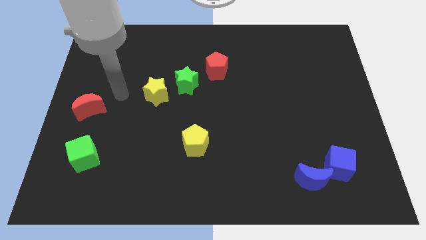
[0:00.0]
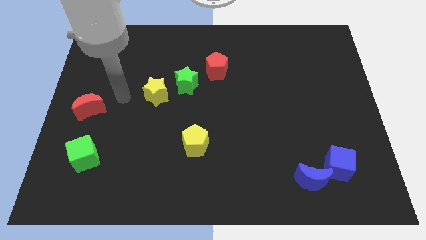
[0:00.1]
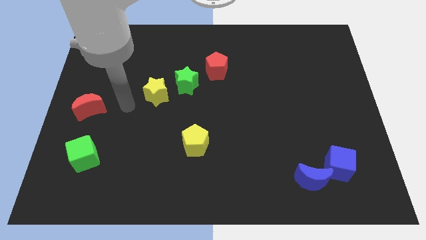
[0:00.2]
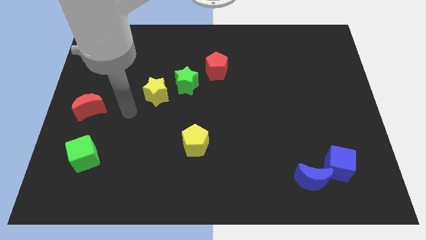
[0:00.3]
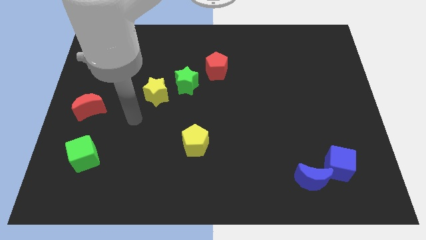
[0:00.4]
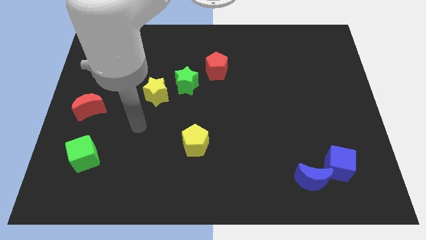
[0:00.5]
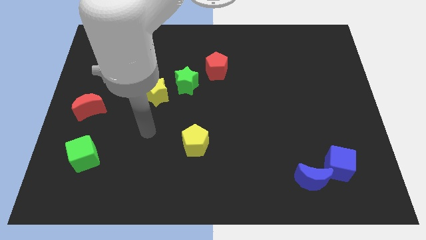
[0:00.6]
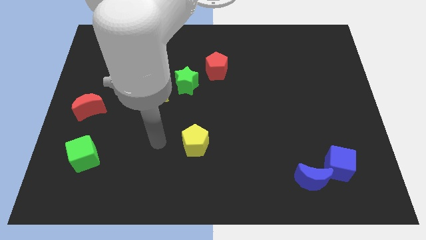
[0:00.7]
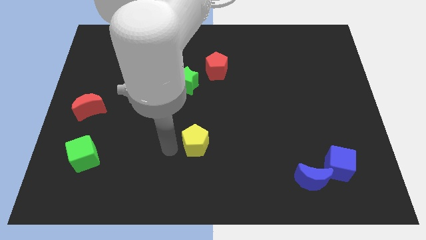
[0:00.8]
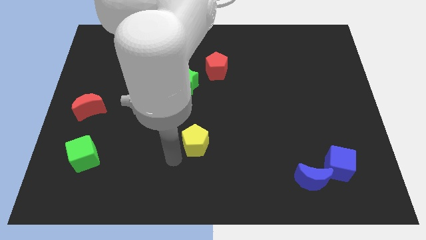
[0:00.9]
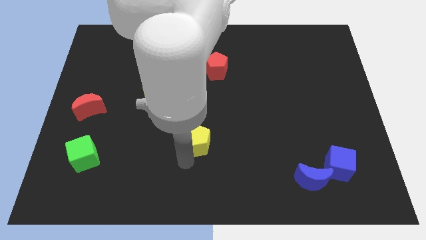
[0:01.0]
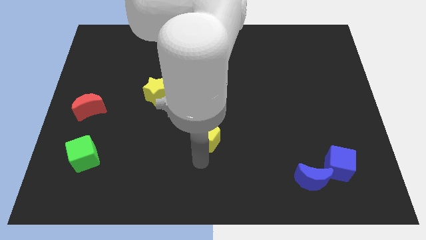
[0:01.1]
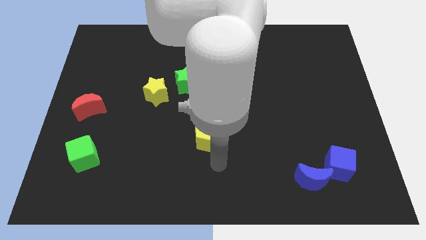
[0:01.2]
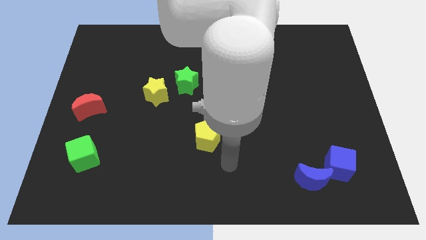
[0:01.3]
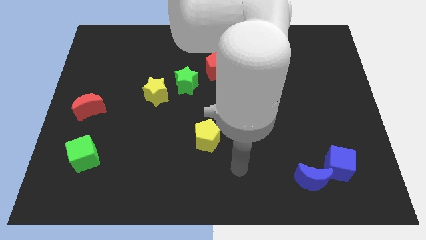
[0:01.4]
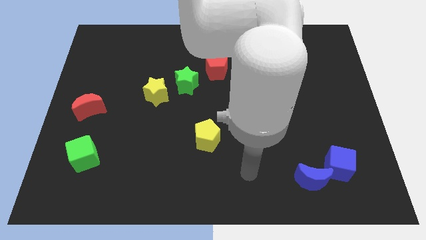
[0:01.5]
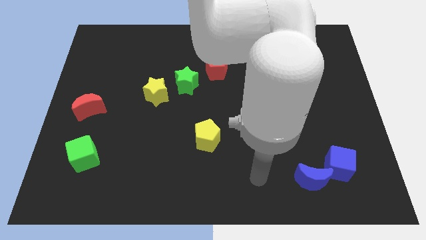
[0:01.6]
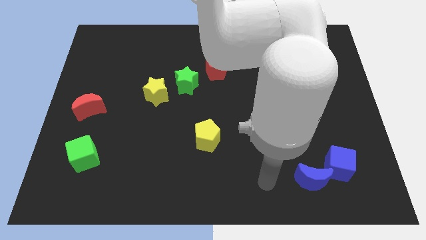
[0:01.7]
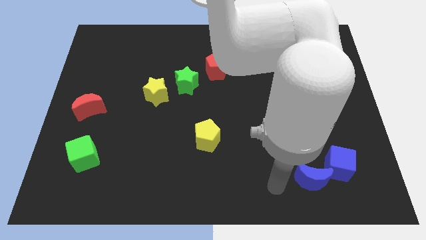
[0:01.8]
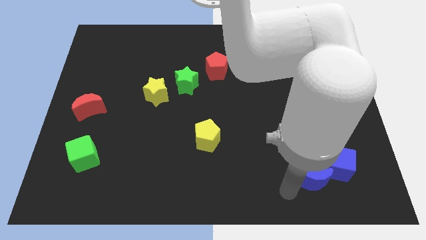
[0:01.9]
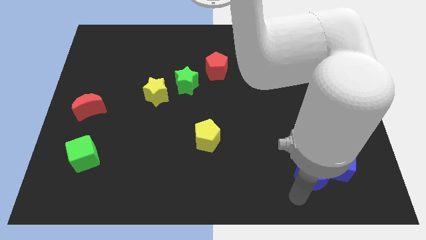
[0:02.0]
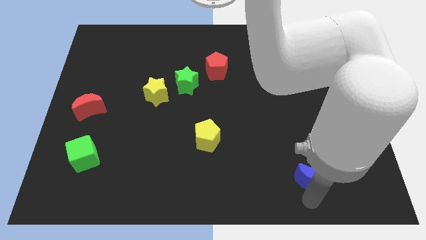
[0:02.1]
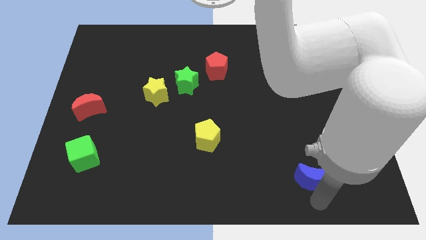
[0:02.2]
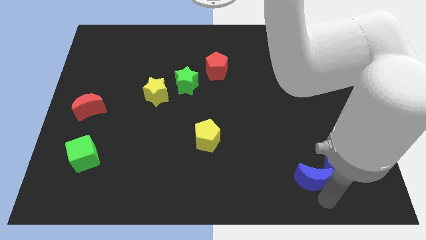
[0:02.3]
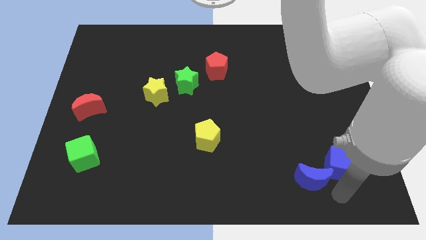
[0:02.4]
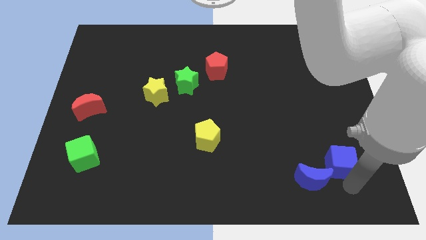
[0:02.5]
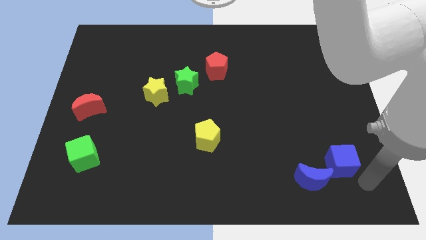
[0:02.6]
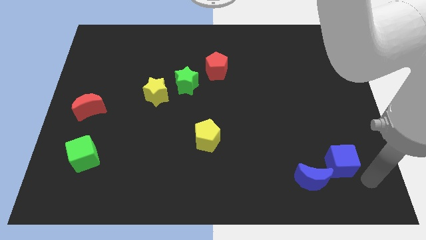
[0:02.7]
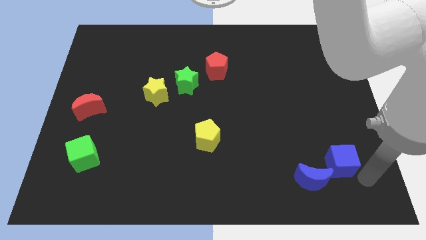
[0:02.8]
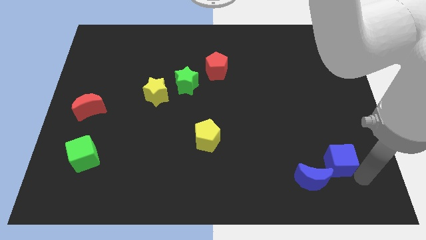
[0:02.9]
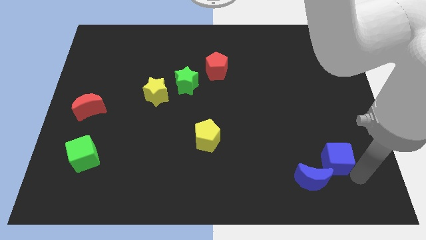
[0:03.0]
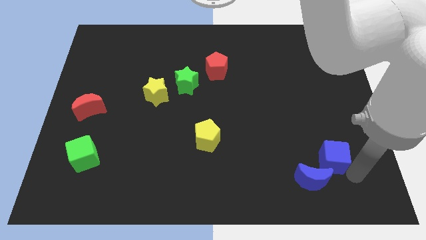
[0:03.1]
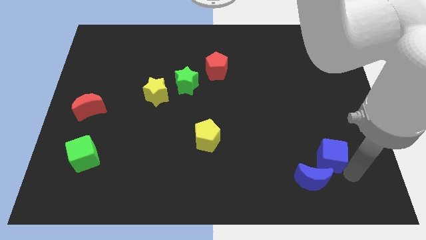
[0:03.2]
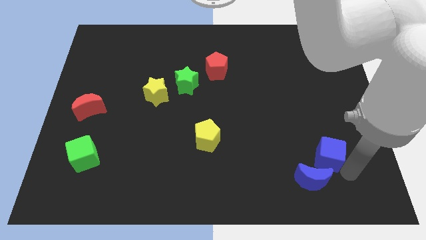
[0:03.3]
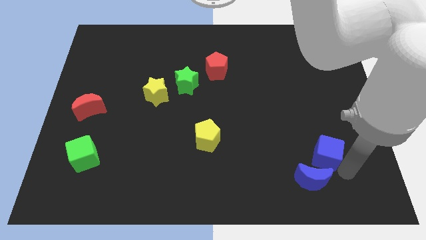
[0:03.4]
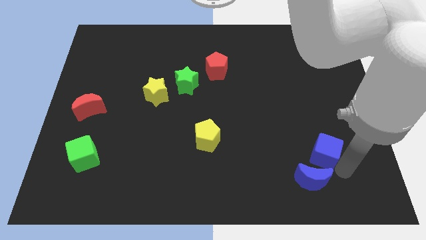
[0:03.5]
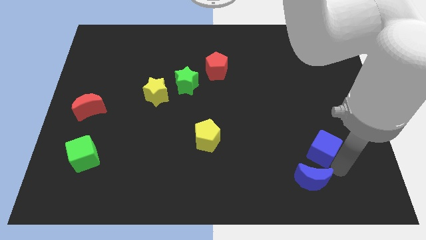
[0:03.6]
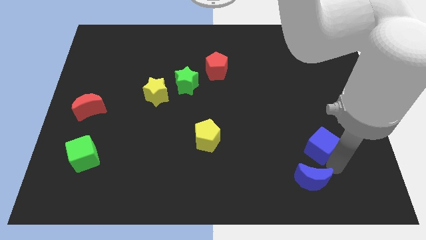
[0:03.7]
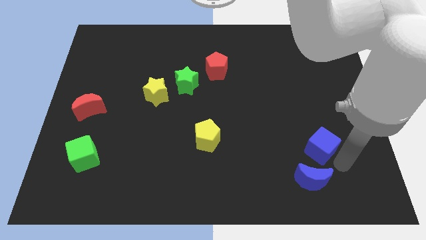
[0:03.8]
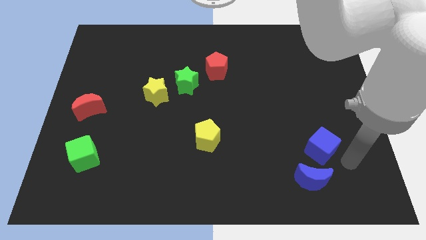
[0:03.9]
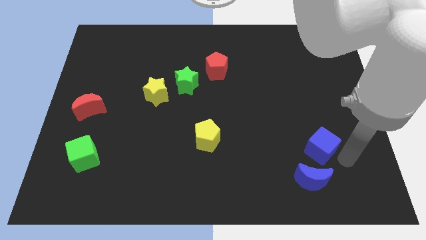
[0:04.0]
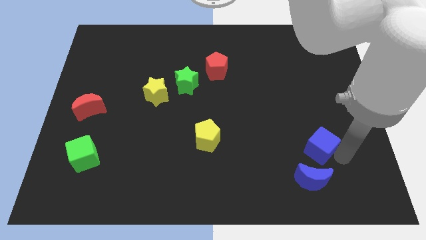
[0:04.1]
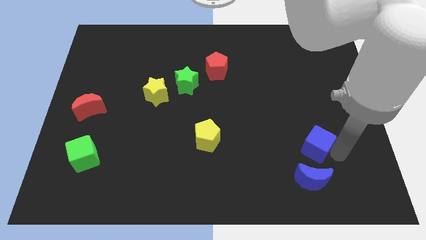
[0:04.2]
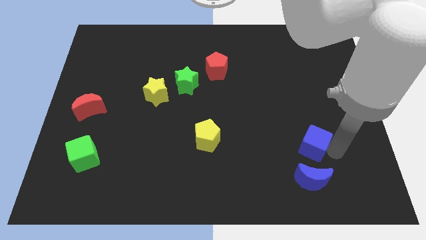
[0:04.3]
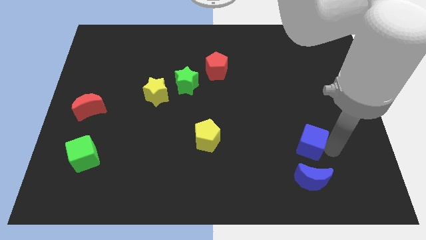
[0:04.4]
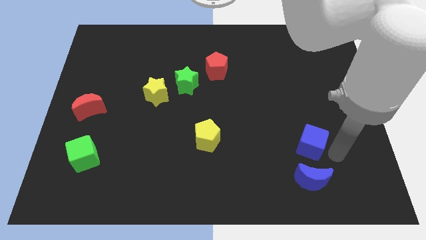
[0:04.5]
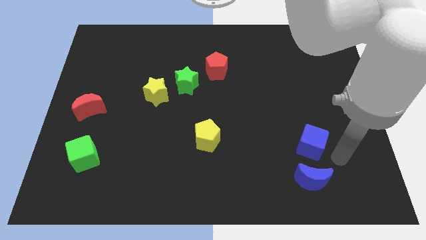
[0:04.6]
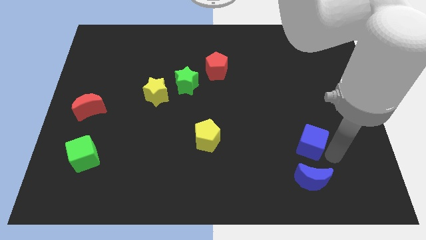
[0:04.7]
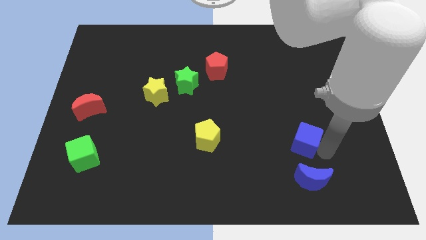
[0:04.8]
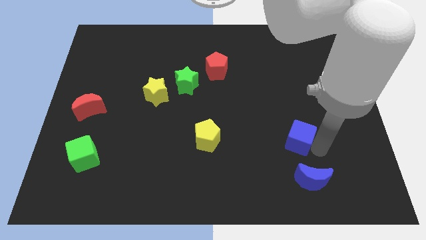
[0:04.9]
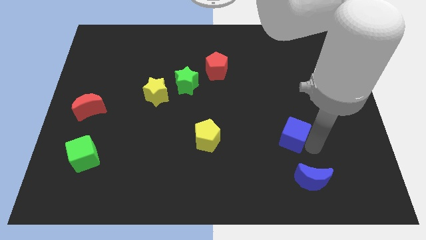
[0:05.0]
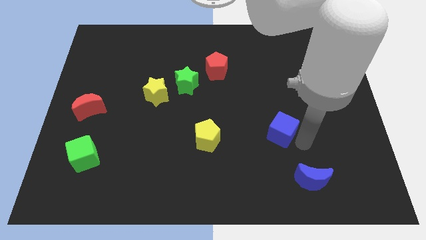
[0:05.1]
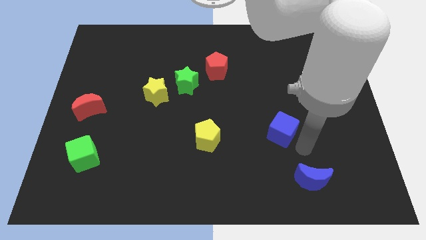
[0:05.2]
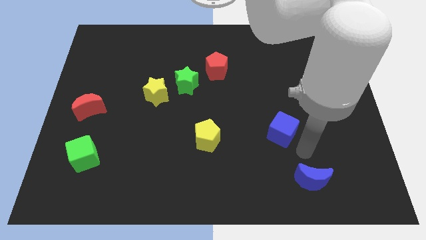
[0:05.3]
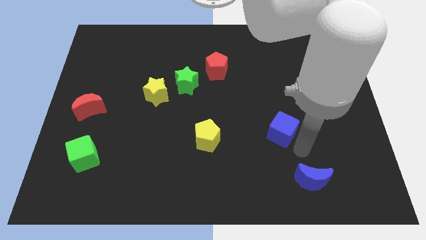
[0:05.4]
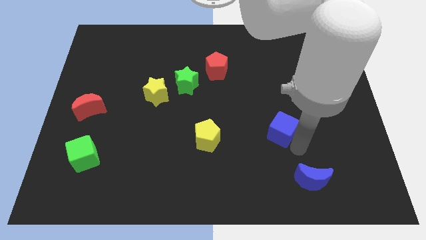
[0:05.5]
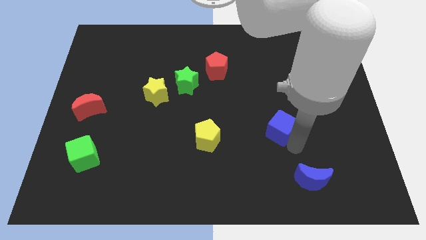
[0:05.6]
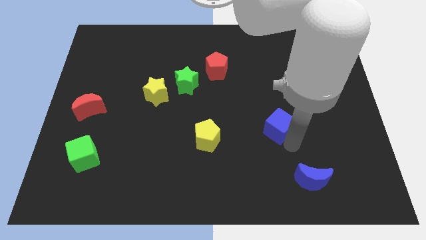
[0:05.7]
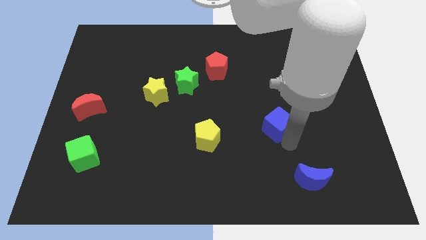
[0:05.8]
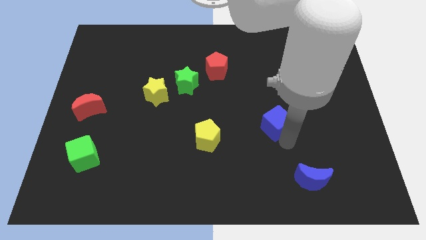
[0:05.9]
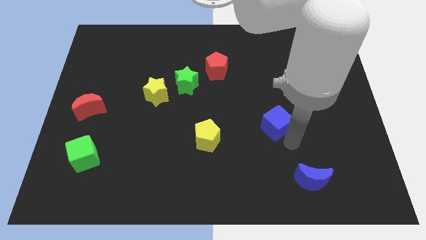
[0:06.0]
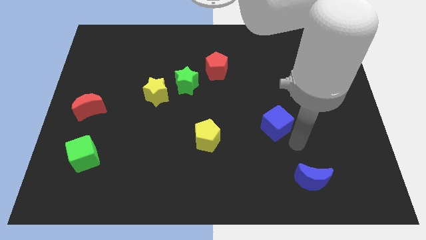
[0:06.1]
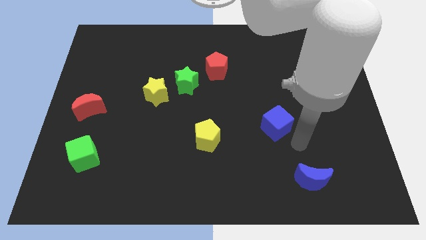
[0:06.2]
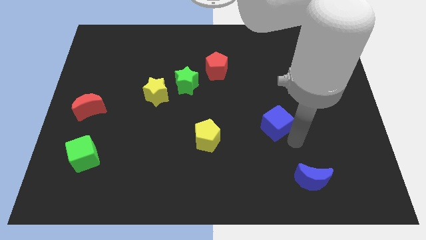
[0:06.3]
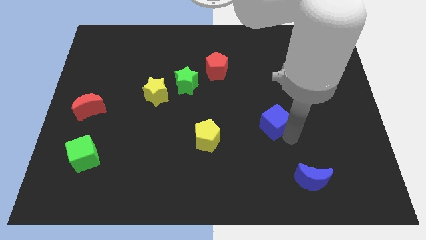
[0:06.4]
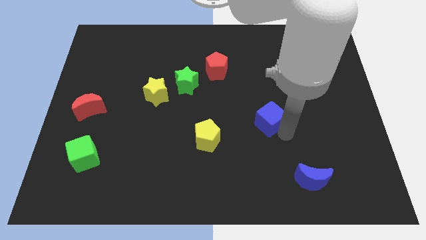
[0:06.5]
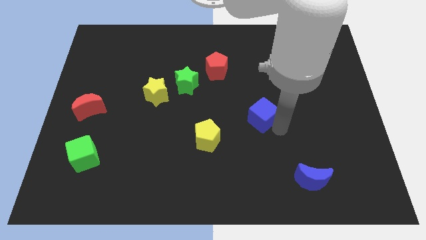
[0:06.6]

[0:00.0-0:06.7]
slide the blue cube to the center of the board
